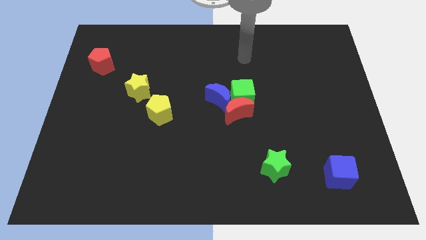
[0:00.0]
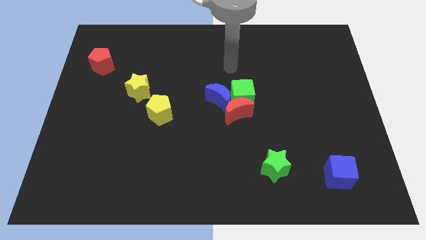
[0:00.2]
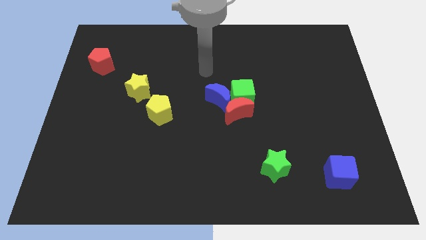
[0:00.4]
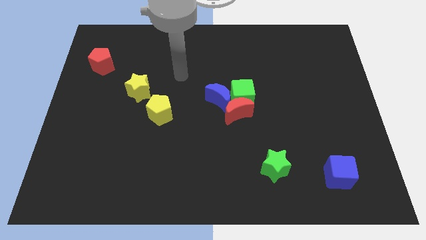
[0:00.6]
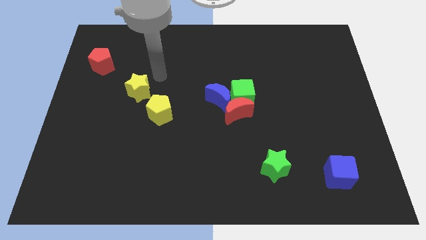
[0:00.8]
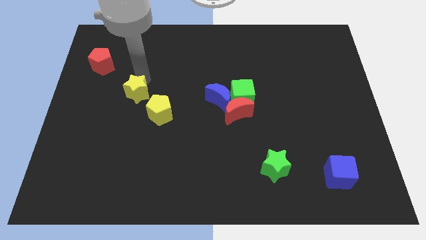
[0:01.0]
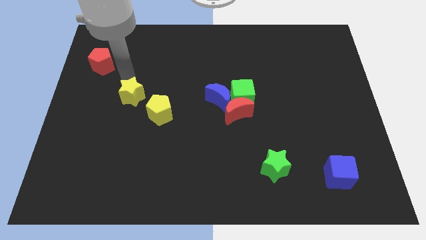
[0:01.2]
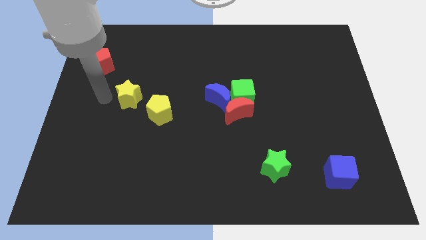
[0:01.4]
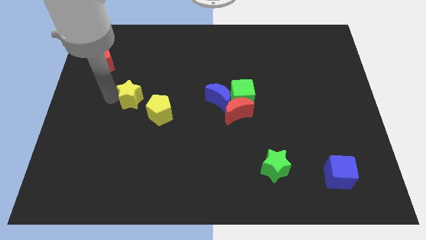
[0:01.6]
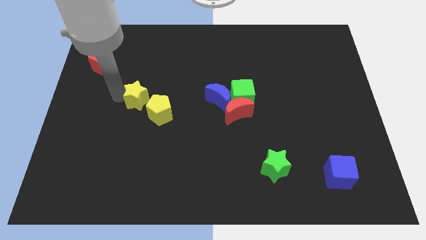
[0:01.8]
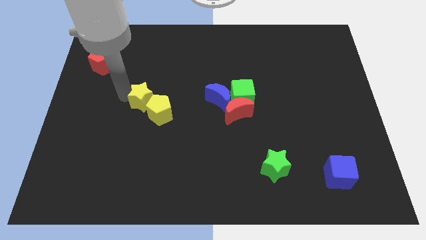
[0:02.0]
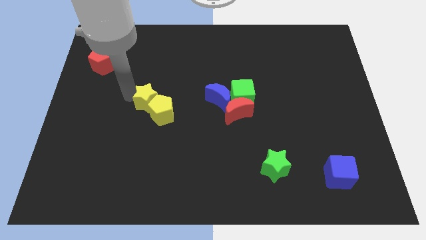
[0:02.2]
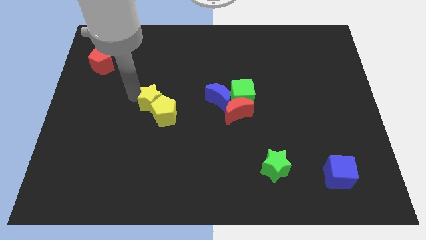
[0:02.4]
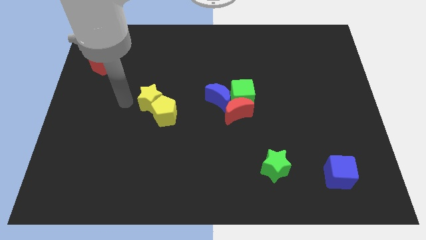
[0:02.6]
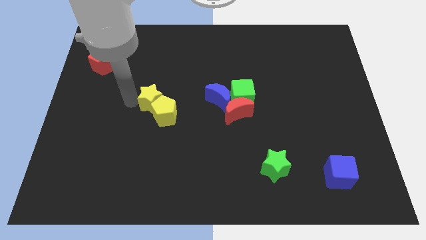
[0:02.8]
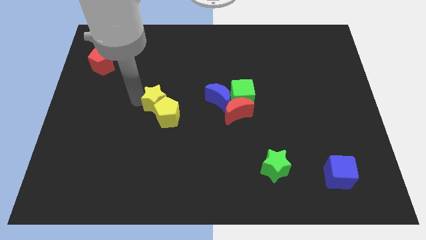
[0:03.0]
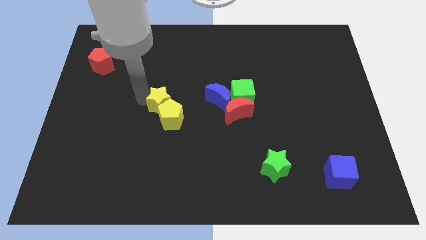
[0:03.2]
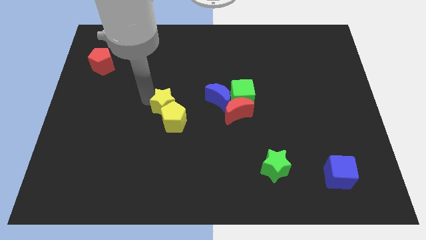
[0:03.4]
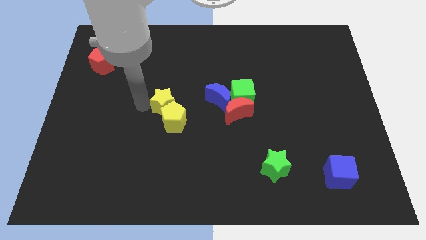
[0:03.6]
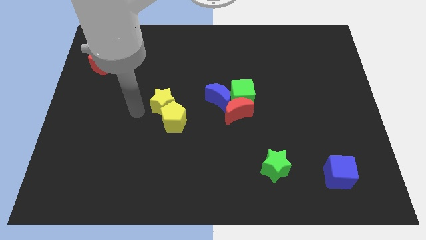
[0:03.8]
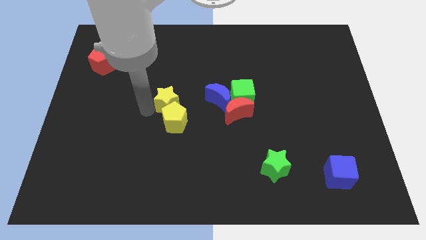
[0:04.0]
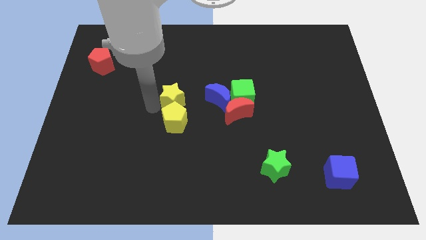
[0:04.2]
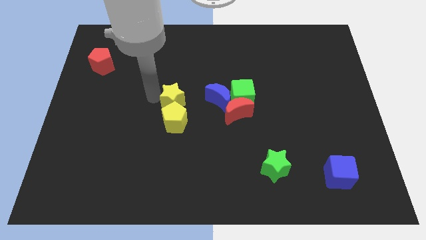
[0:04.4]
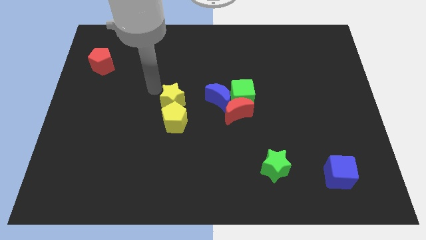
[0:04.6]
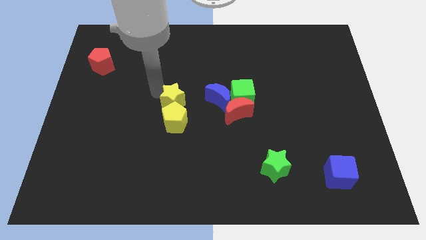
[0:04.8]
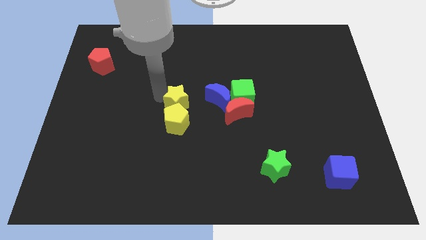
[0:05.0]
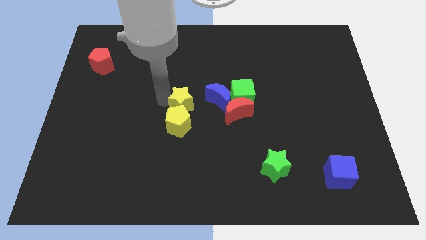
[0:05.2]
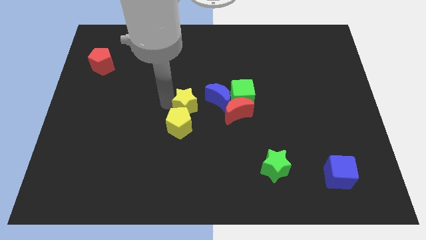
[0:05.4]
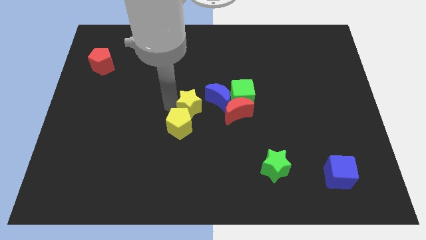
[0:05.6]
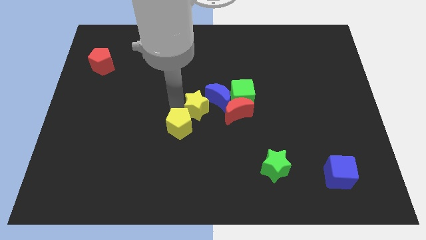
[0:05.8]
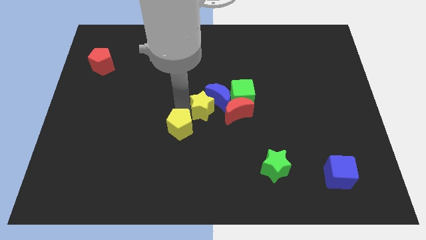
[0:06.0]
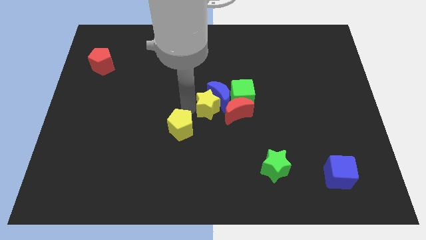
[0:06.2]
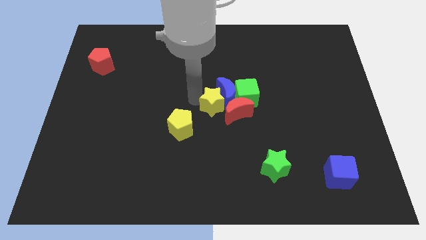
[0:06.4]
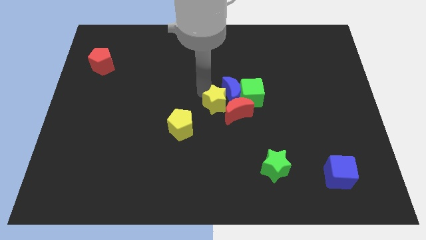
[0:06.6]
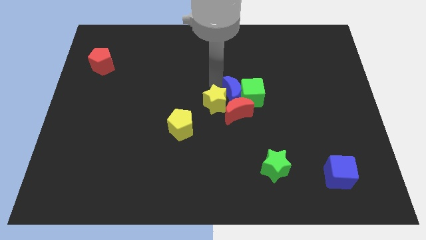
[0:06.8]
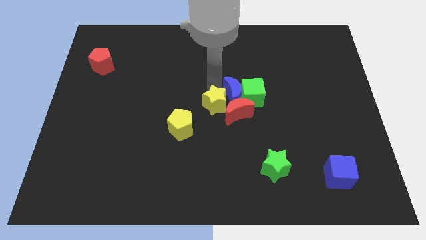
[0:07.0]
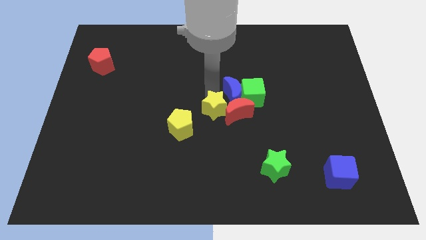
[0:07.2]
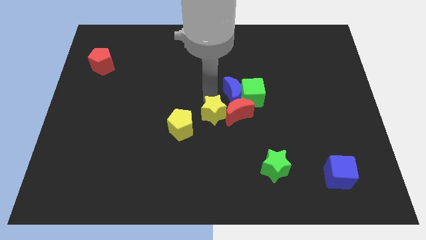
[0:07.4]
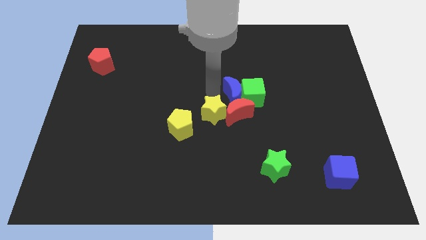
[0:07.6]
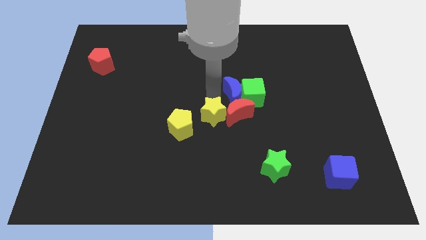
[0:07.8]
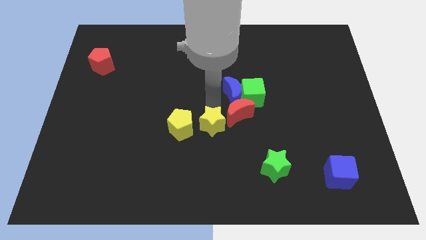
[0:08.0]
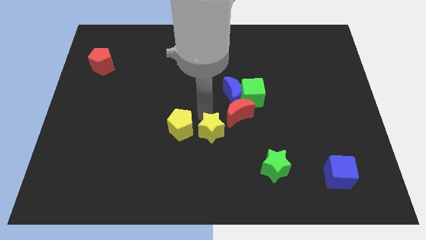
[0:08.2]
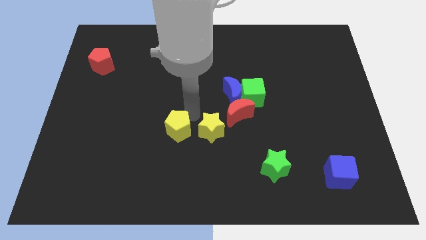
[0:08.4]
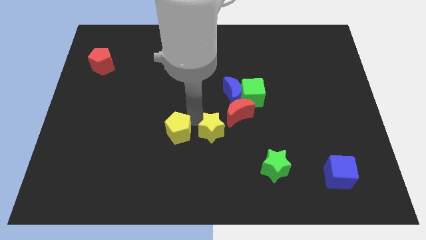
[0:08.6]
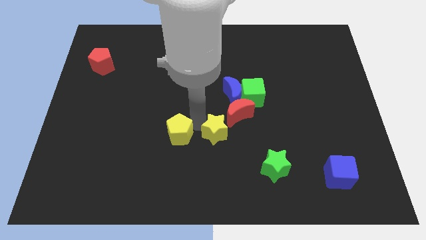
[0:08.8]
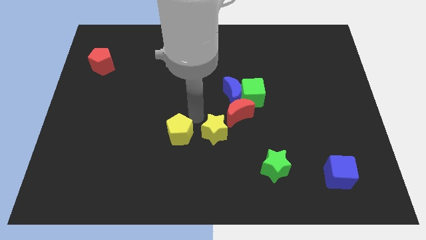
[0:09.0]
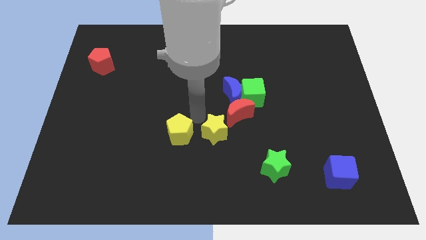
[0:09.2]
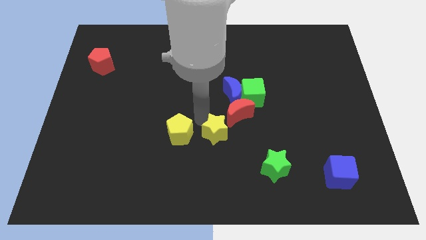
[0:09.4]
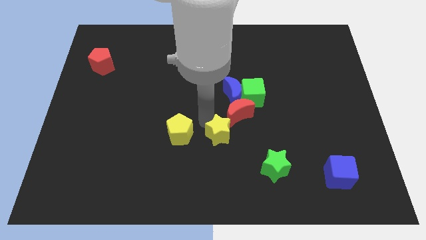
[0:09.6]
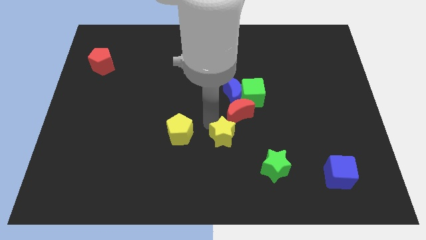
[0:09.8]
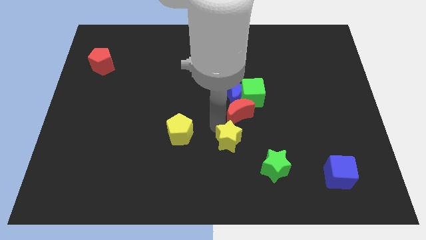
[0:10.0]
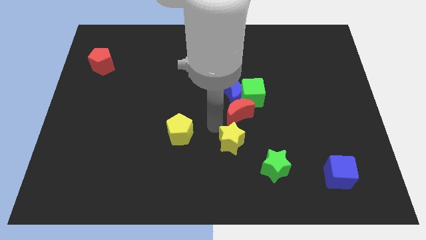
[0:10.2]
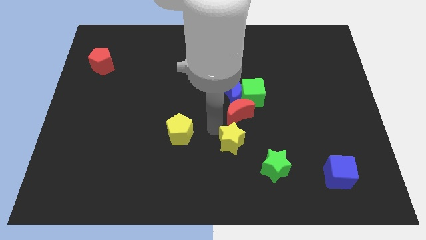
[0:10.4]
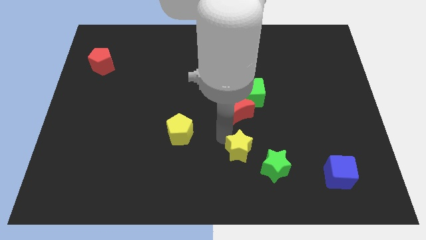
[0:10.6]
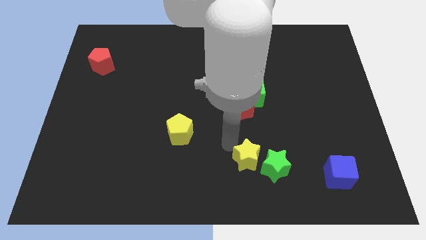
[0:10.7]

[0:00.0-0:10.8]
push the yellow star next to the green star

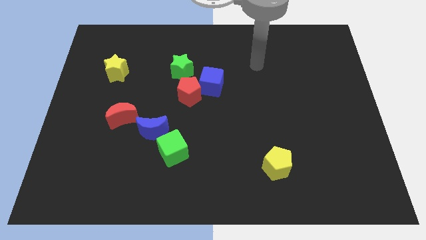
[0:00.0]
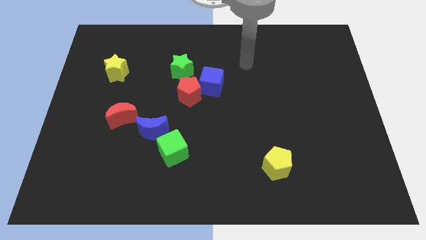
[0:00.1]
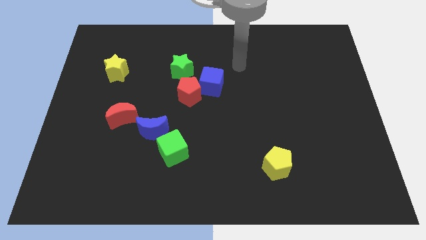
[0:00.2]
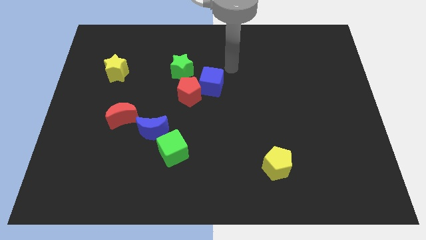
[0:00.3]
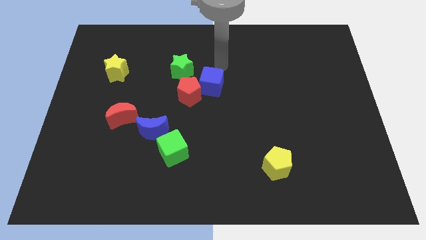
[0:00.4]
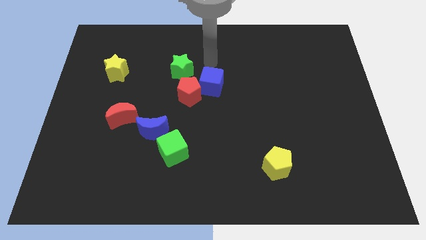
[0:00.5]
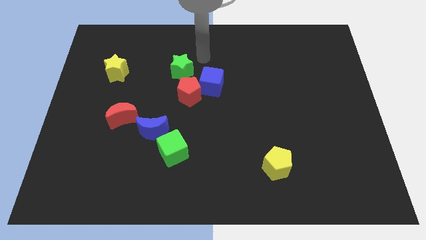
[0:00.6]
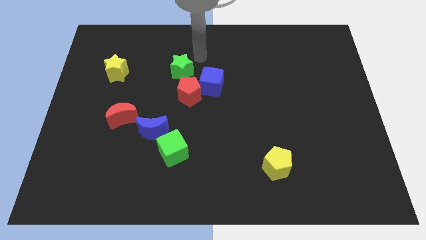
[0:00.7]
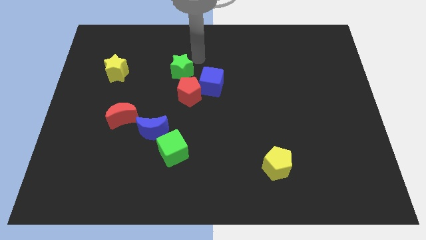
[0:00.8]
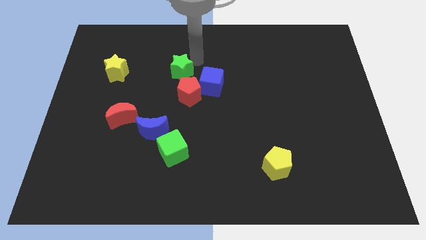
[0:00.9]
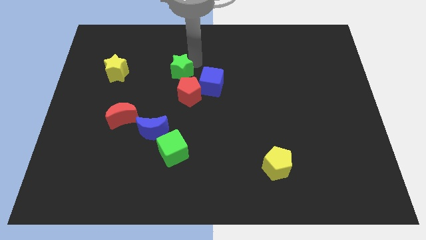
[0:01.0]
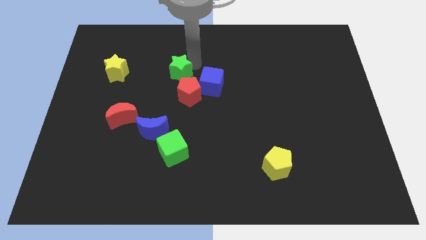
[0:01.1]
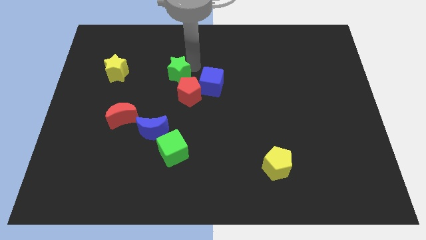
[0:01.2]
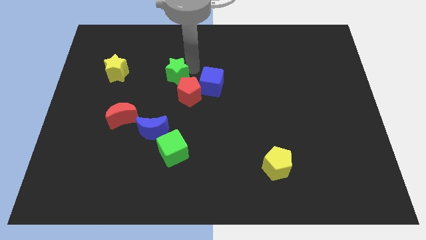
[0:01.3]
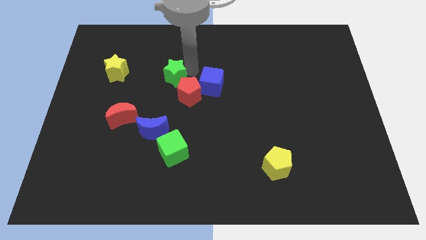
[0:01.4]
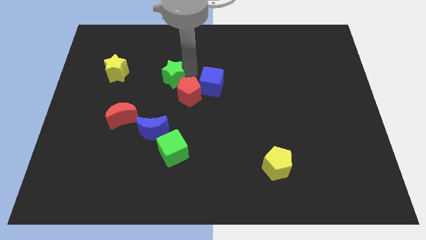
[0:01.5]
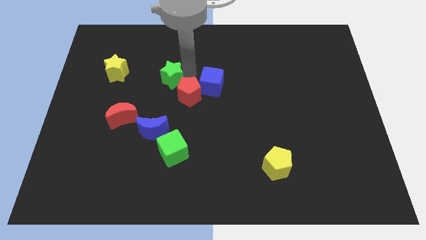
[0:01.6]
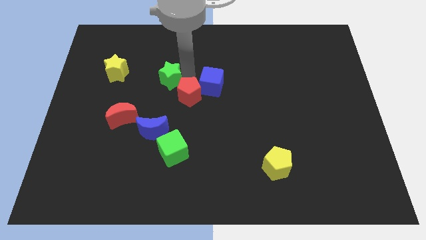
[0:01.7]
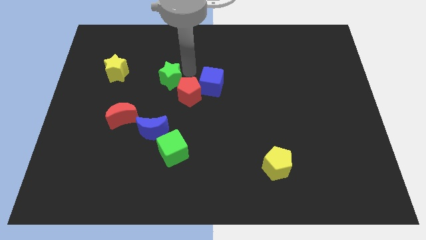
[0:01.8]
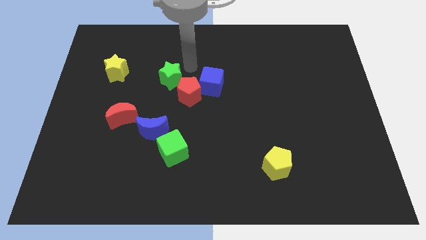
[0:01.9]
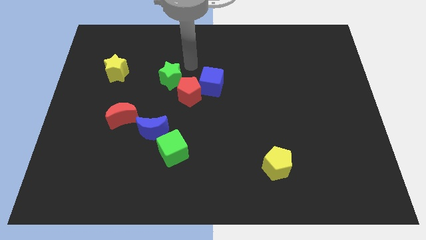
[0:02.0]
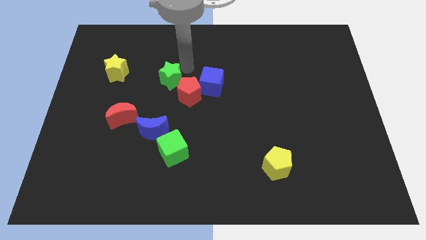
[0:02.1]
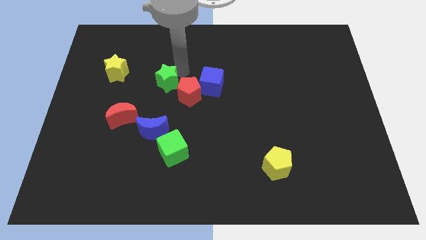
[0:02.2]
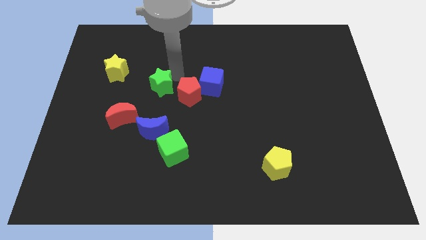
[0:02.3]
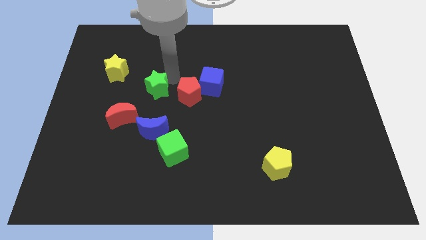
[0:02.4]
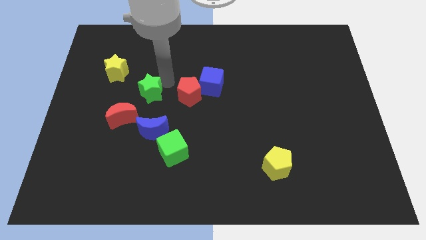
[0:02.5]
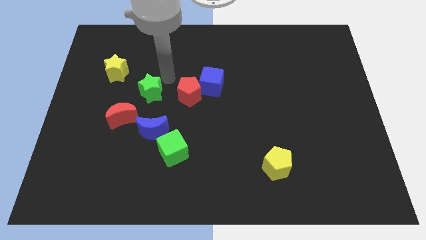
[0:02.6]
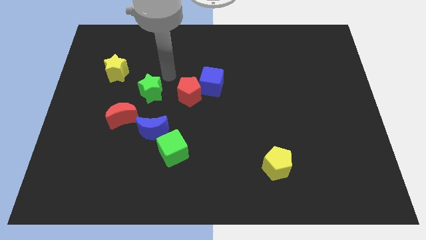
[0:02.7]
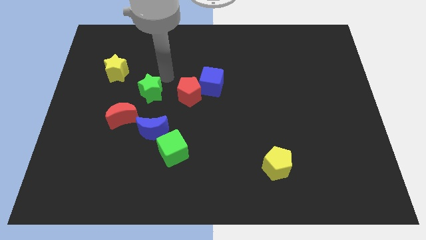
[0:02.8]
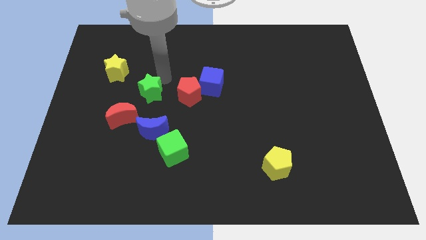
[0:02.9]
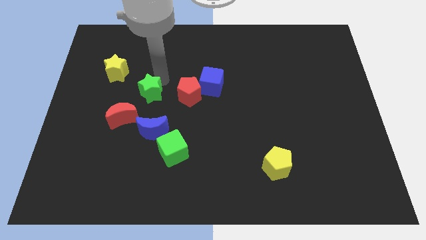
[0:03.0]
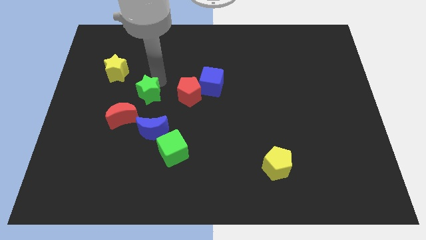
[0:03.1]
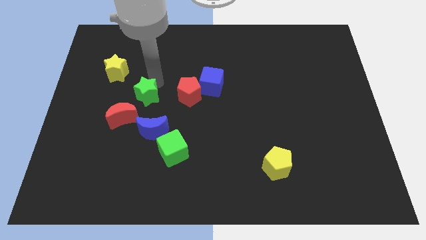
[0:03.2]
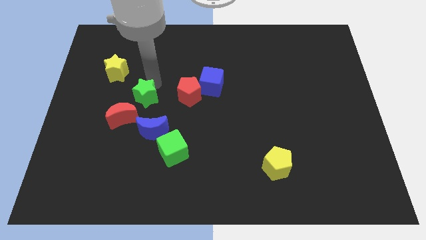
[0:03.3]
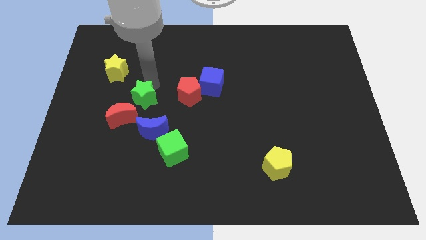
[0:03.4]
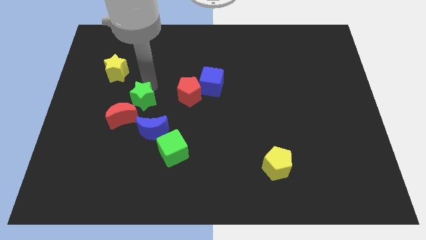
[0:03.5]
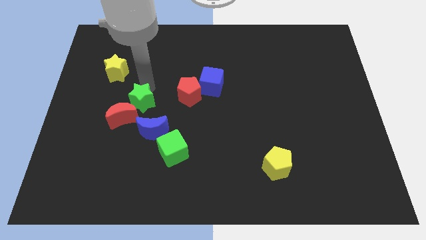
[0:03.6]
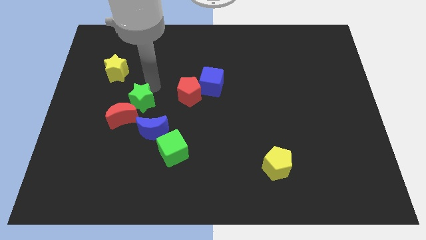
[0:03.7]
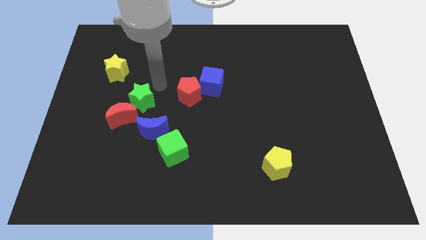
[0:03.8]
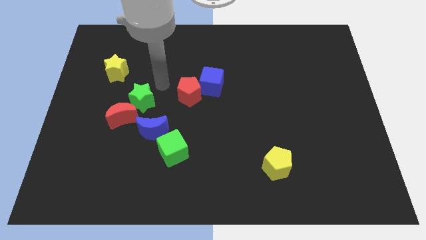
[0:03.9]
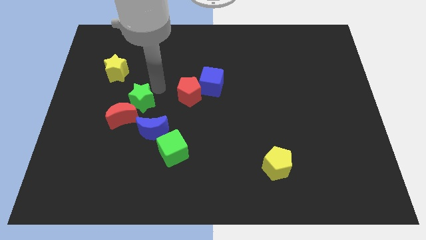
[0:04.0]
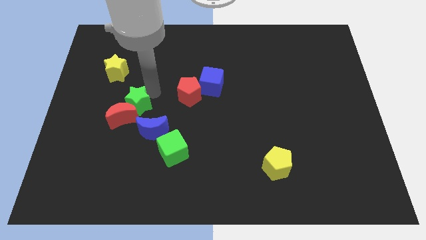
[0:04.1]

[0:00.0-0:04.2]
move the green star towards the red moon
